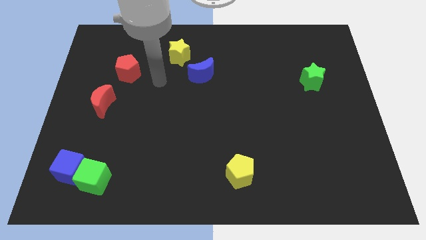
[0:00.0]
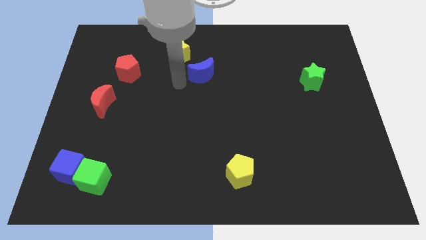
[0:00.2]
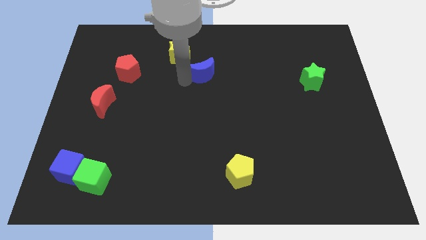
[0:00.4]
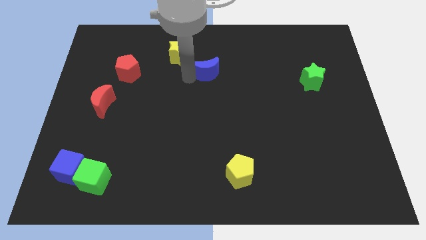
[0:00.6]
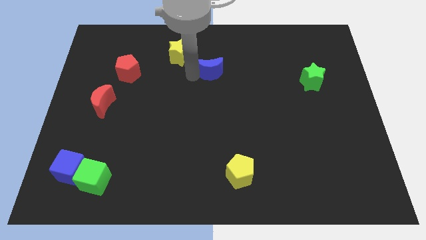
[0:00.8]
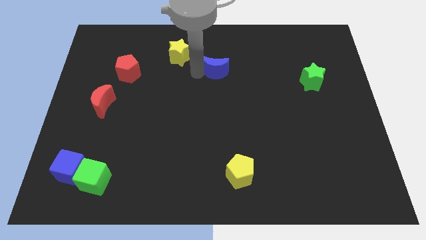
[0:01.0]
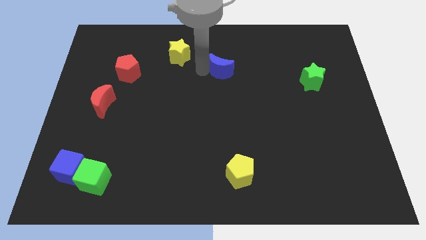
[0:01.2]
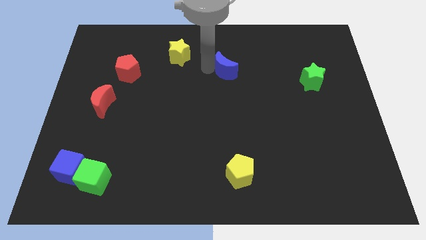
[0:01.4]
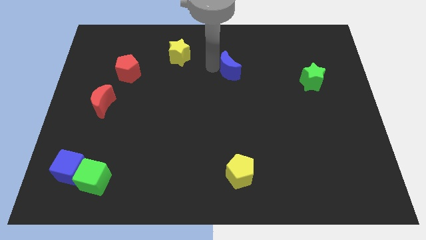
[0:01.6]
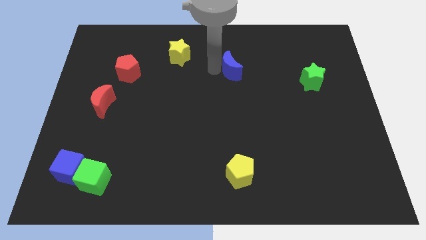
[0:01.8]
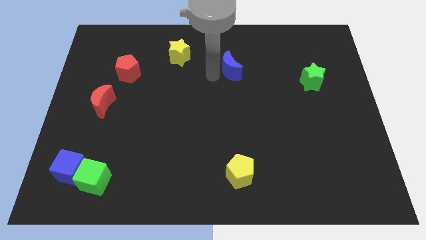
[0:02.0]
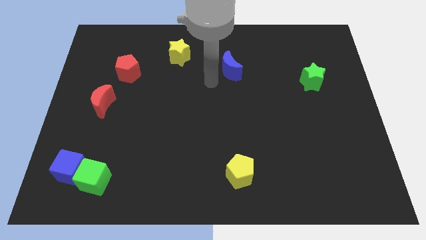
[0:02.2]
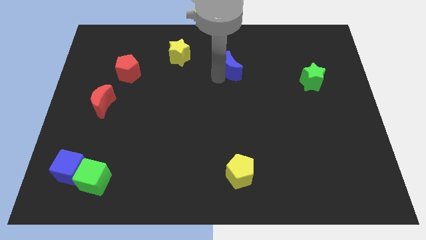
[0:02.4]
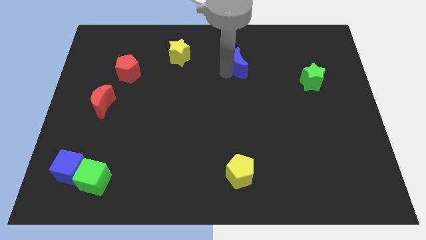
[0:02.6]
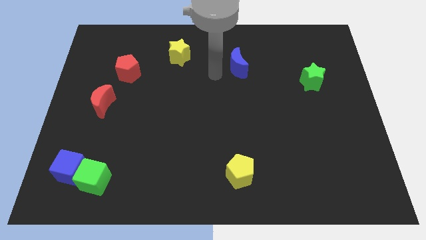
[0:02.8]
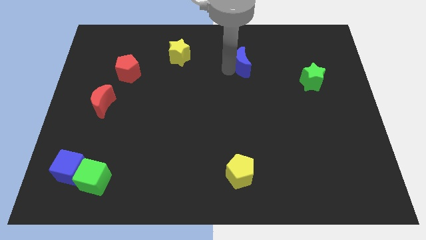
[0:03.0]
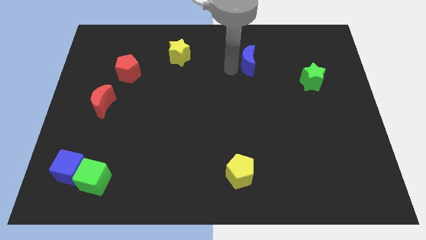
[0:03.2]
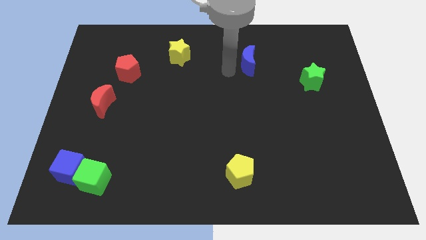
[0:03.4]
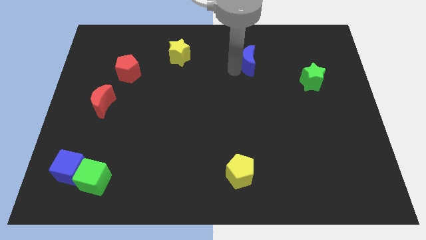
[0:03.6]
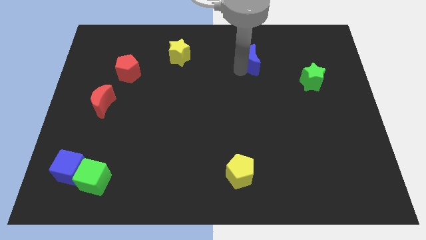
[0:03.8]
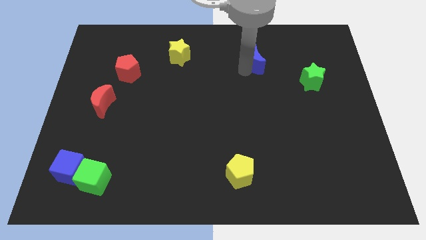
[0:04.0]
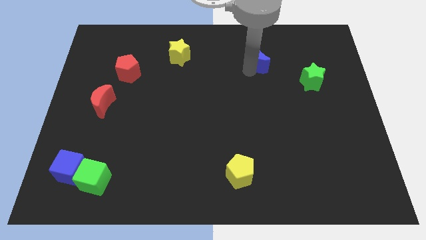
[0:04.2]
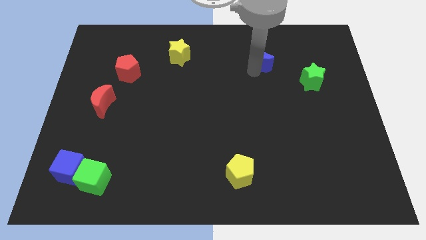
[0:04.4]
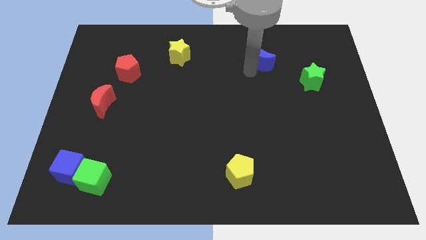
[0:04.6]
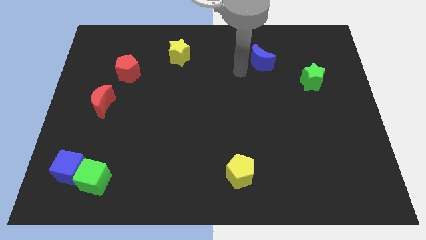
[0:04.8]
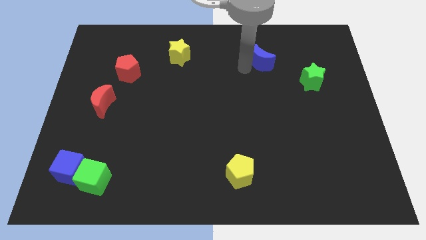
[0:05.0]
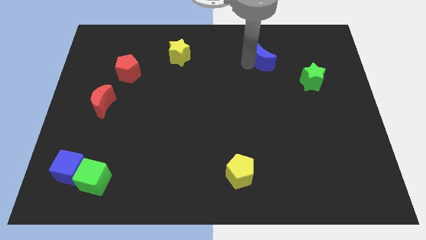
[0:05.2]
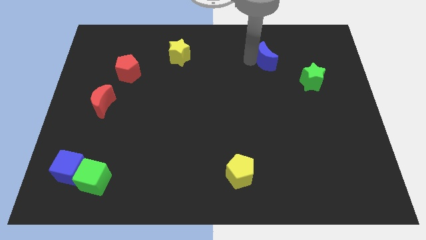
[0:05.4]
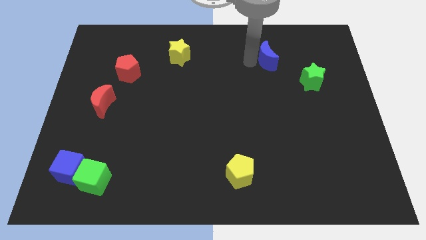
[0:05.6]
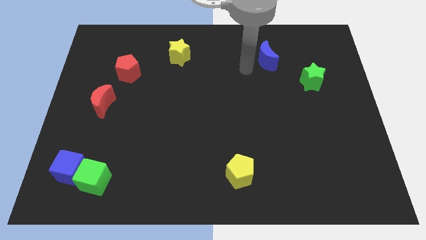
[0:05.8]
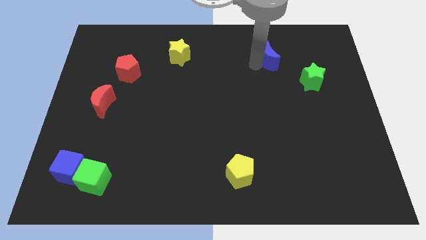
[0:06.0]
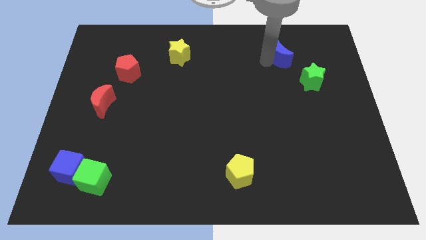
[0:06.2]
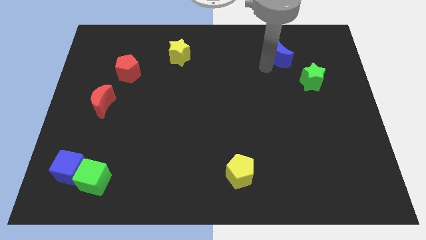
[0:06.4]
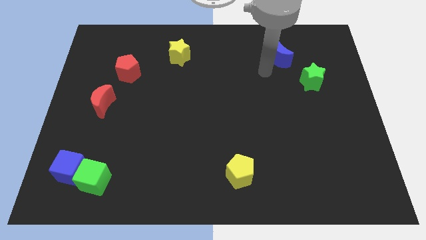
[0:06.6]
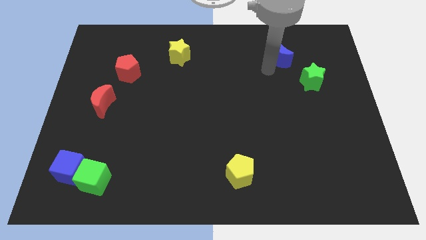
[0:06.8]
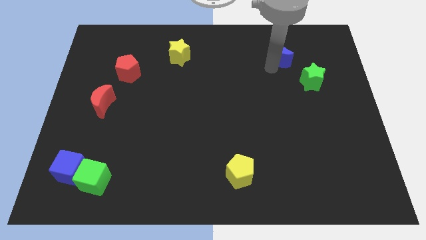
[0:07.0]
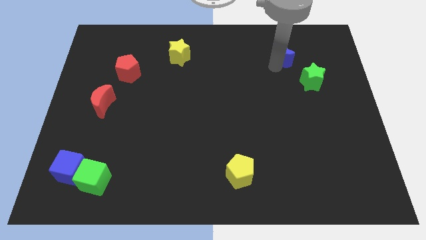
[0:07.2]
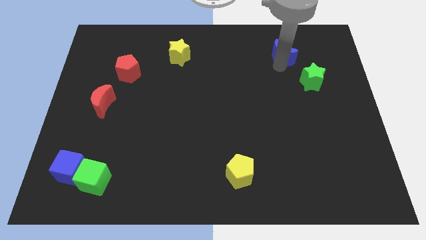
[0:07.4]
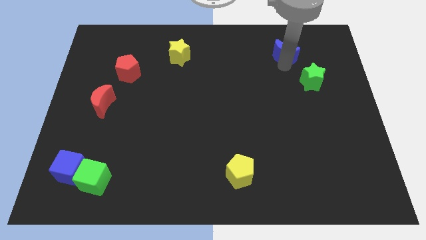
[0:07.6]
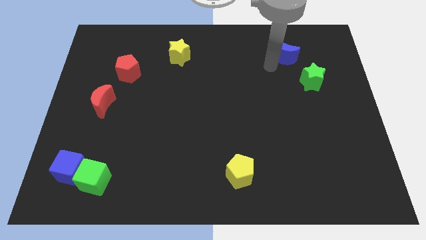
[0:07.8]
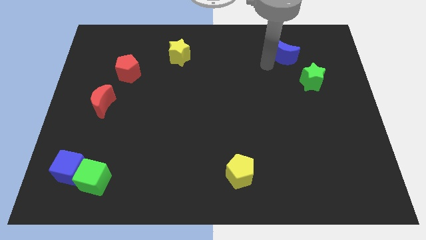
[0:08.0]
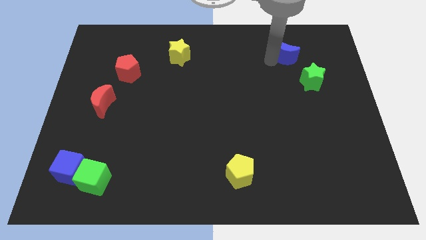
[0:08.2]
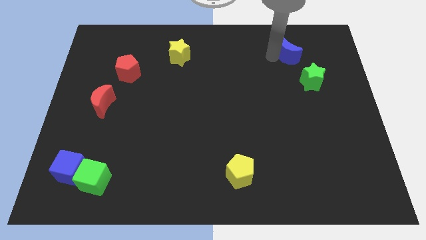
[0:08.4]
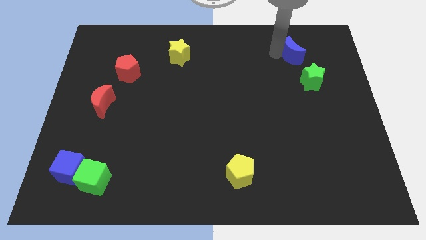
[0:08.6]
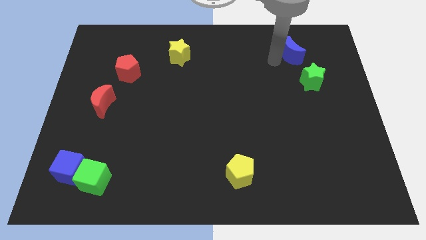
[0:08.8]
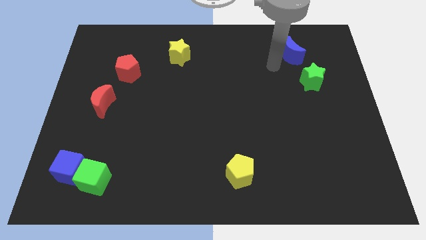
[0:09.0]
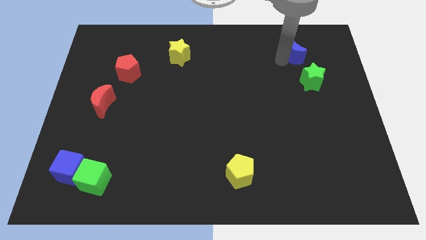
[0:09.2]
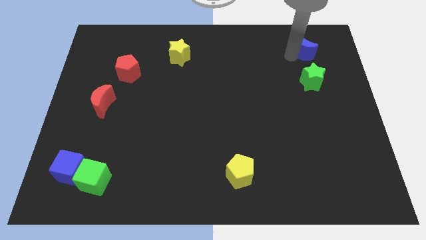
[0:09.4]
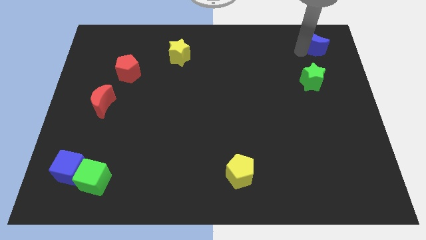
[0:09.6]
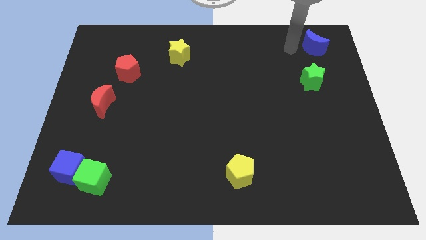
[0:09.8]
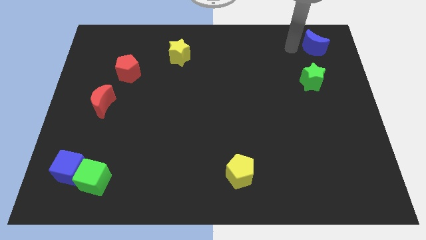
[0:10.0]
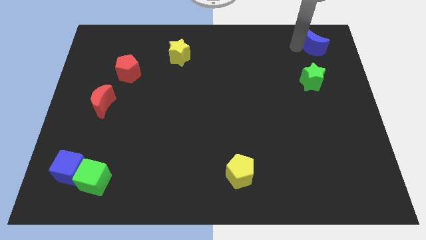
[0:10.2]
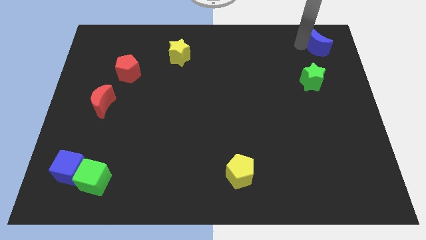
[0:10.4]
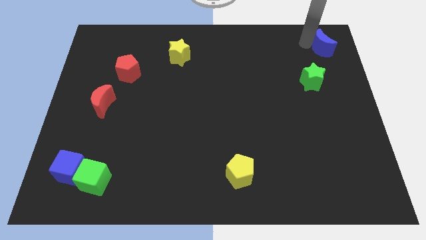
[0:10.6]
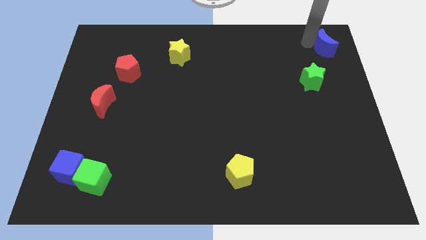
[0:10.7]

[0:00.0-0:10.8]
slide the blue moon to the top right of the board

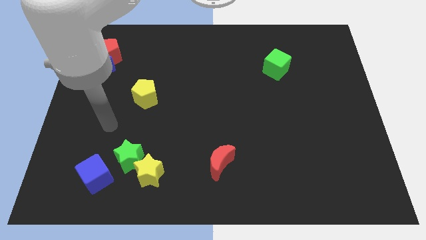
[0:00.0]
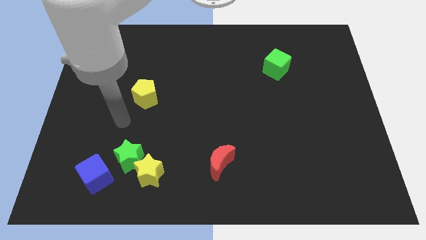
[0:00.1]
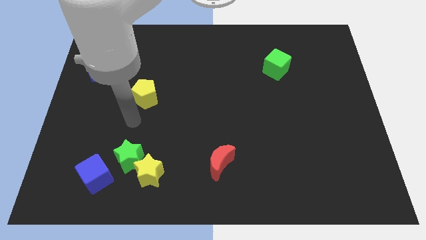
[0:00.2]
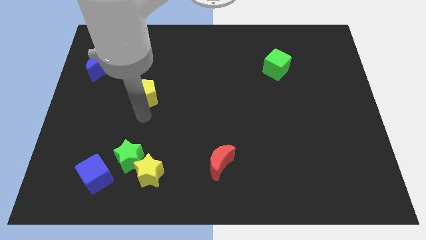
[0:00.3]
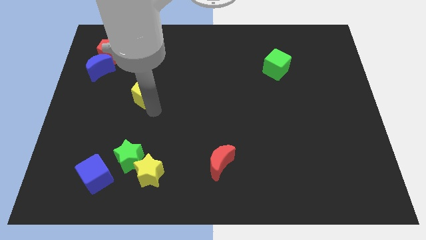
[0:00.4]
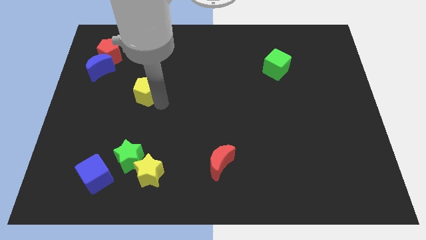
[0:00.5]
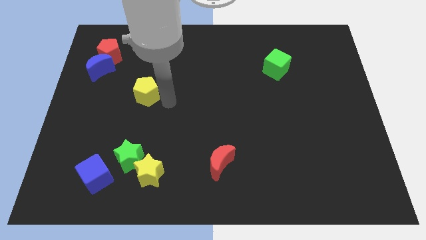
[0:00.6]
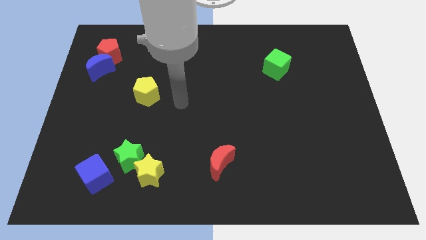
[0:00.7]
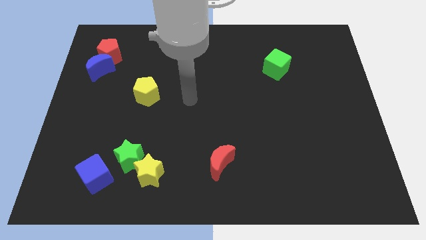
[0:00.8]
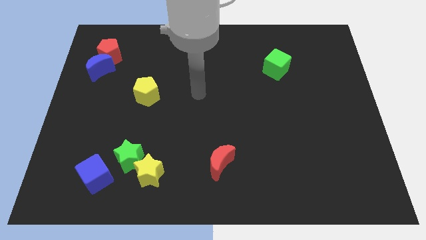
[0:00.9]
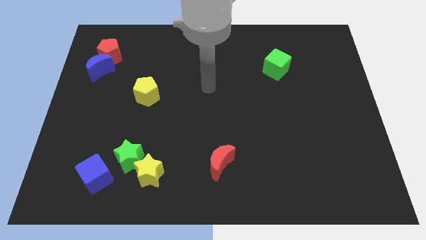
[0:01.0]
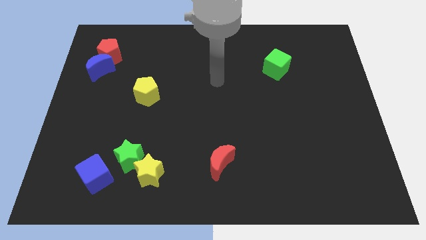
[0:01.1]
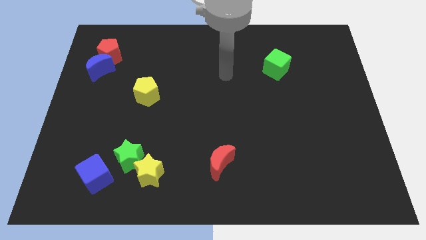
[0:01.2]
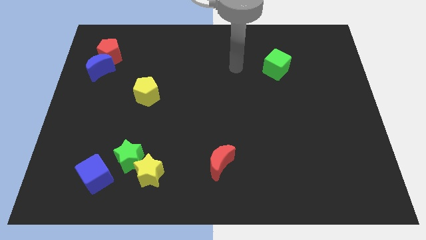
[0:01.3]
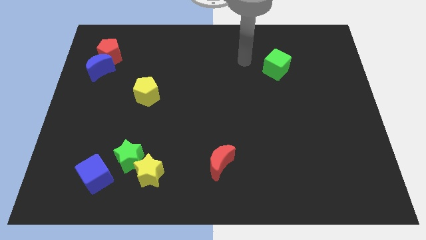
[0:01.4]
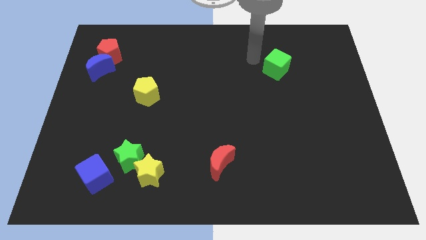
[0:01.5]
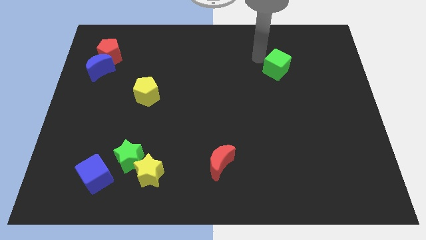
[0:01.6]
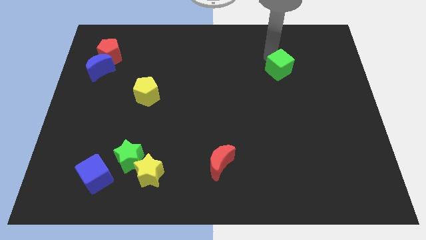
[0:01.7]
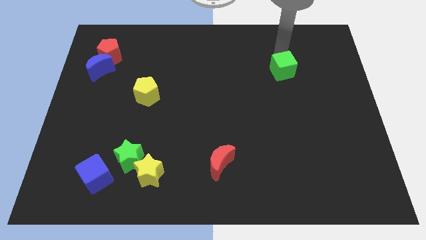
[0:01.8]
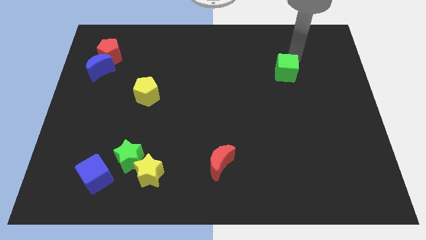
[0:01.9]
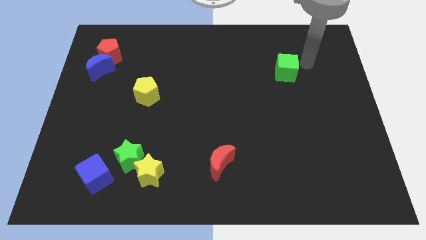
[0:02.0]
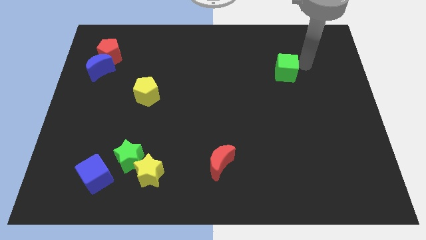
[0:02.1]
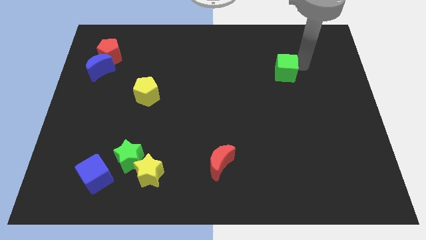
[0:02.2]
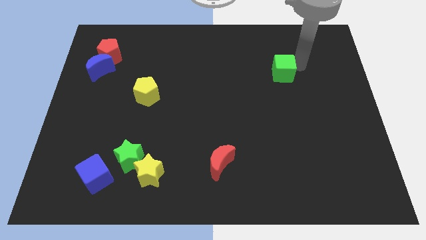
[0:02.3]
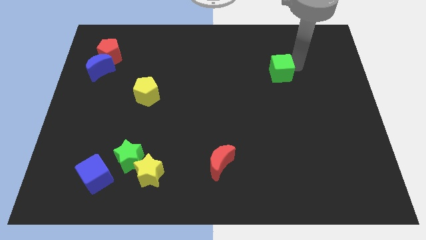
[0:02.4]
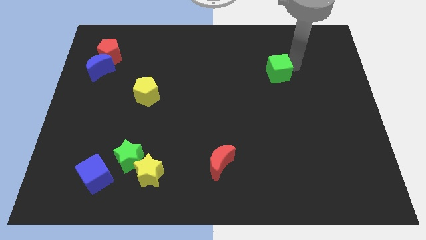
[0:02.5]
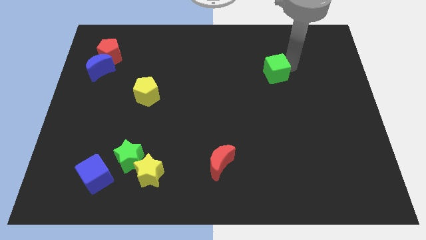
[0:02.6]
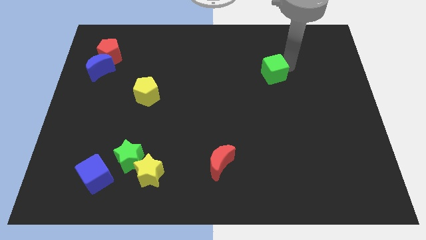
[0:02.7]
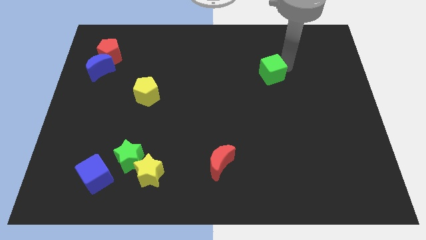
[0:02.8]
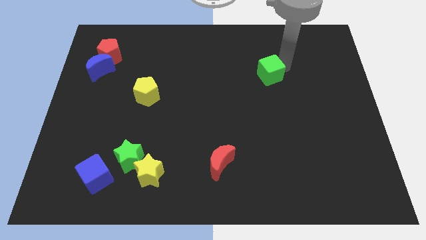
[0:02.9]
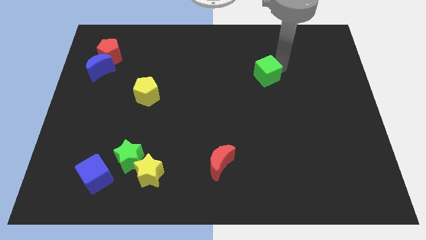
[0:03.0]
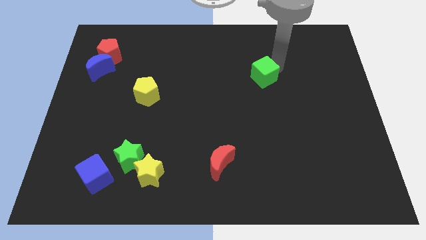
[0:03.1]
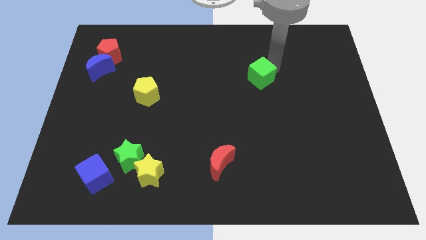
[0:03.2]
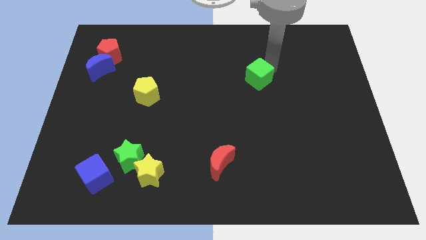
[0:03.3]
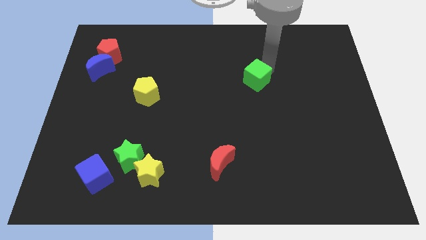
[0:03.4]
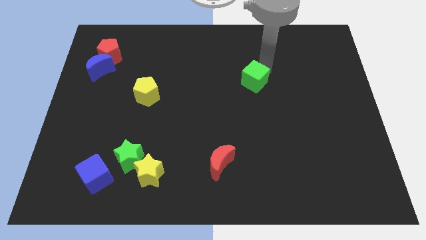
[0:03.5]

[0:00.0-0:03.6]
move the green cube to the center of the board
